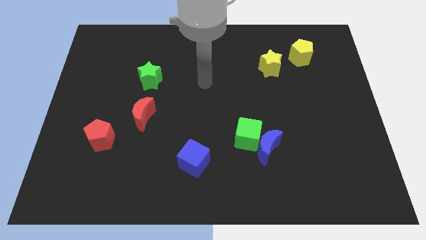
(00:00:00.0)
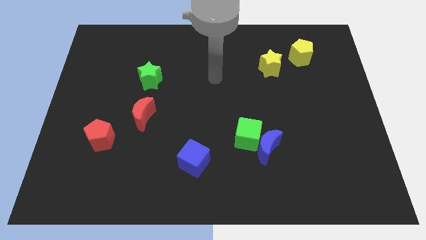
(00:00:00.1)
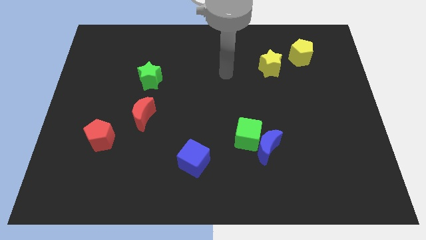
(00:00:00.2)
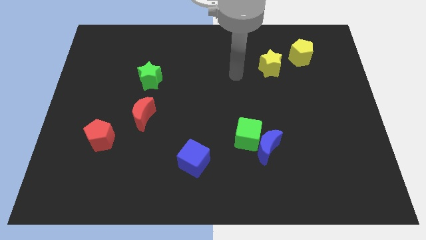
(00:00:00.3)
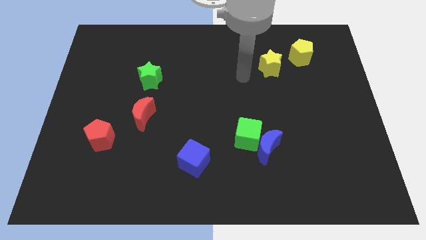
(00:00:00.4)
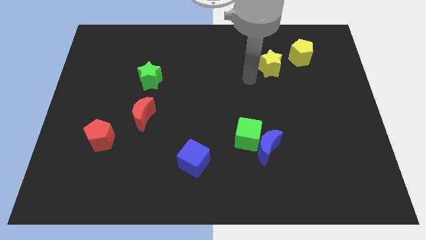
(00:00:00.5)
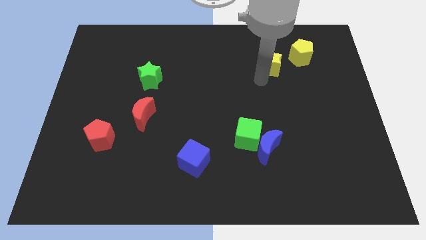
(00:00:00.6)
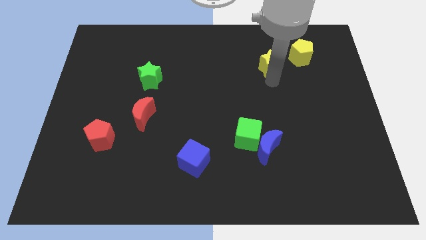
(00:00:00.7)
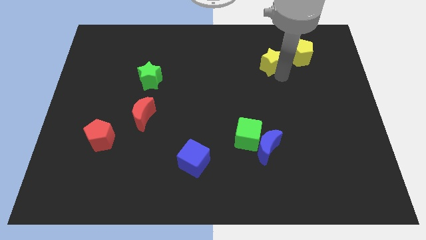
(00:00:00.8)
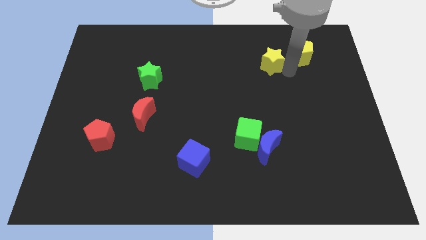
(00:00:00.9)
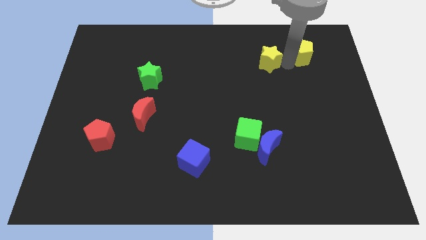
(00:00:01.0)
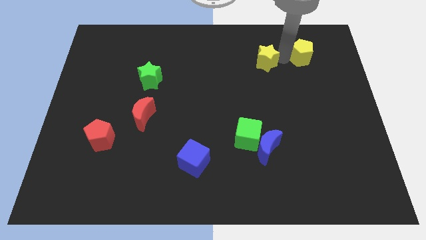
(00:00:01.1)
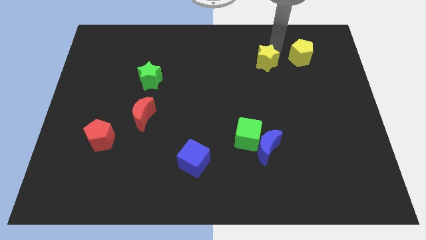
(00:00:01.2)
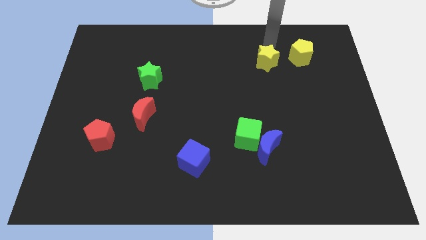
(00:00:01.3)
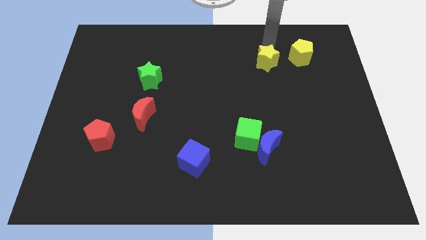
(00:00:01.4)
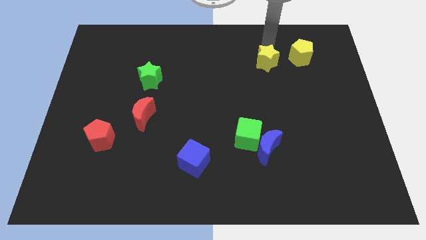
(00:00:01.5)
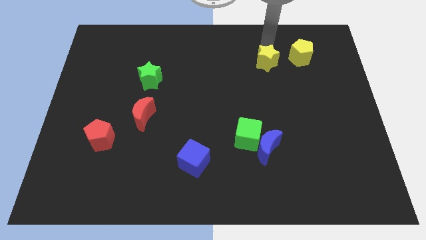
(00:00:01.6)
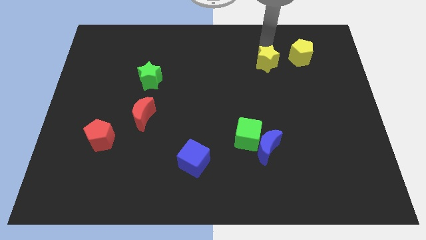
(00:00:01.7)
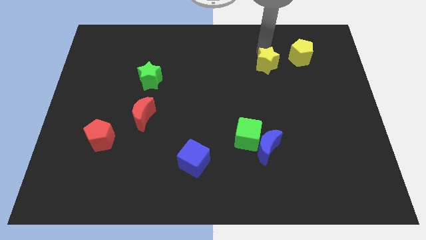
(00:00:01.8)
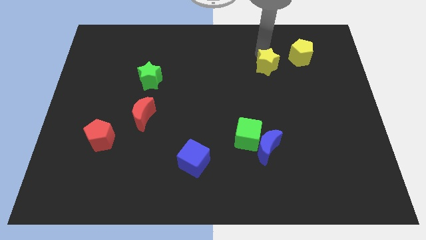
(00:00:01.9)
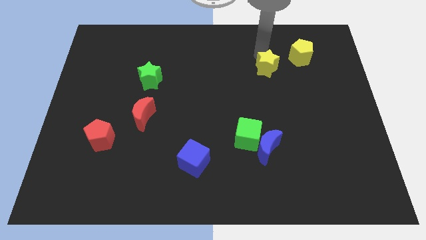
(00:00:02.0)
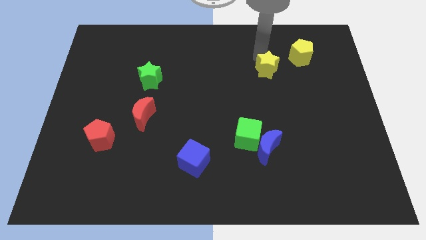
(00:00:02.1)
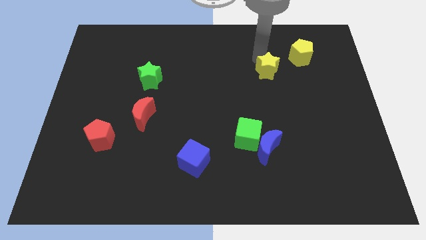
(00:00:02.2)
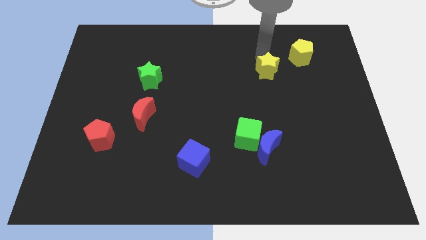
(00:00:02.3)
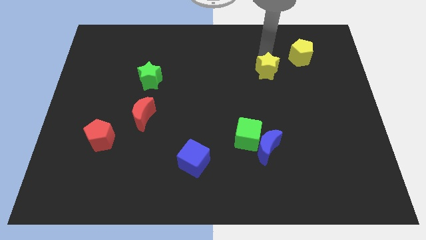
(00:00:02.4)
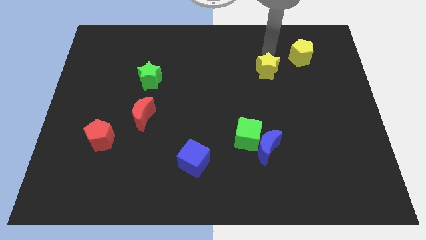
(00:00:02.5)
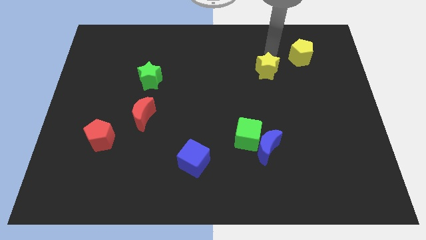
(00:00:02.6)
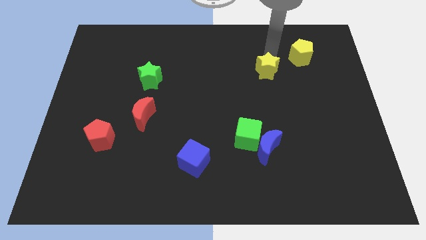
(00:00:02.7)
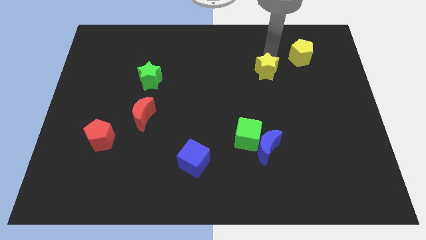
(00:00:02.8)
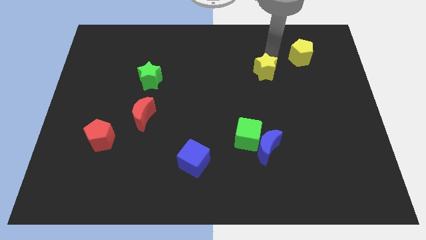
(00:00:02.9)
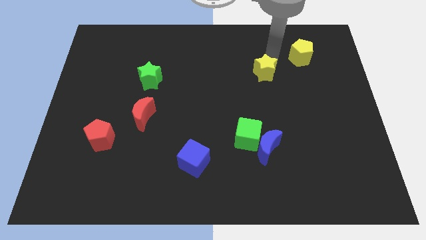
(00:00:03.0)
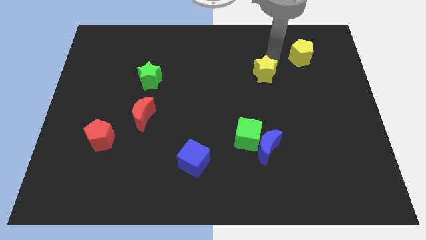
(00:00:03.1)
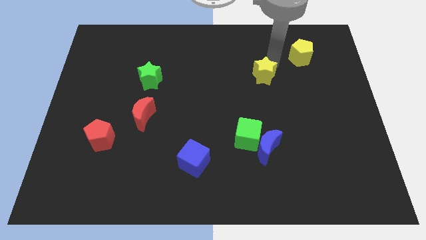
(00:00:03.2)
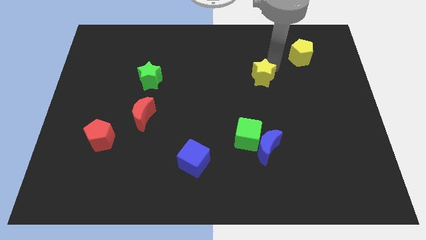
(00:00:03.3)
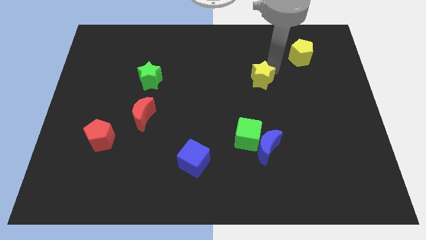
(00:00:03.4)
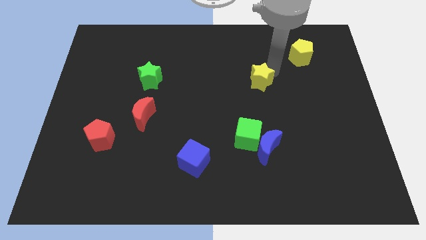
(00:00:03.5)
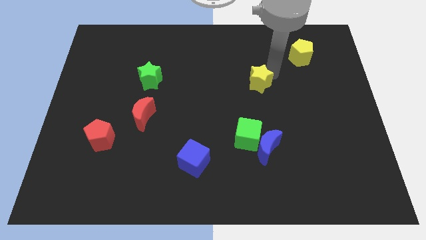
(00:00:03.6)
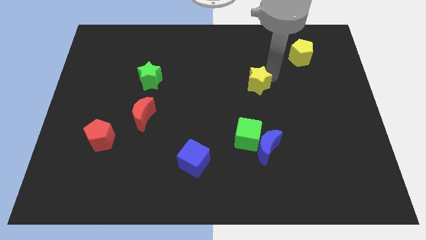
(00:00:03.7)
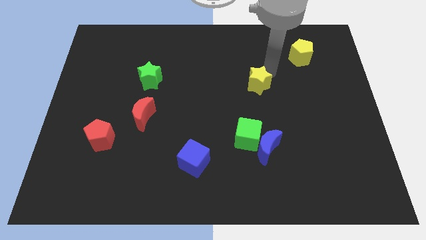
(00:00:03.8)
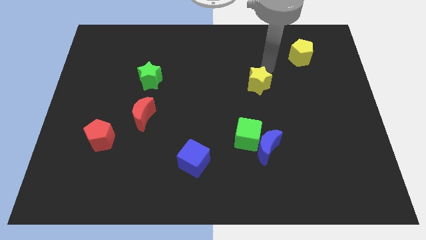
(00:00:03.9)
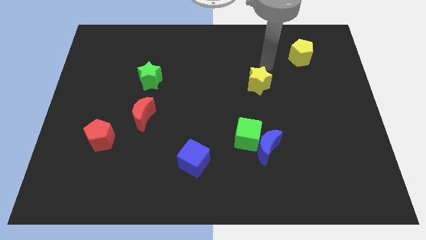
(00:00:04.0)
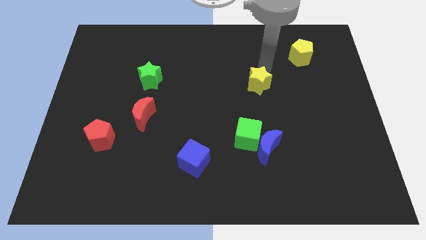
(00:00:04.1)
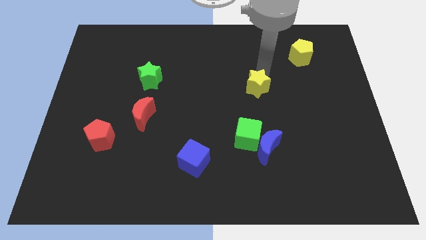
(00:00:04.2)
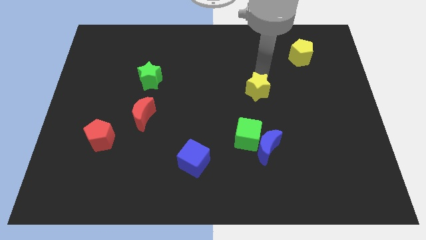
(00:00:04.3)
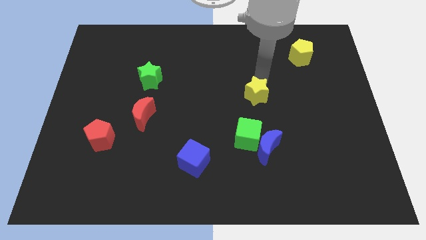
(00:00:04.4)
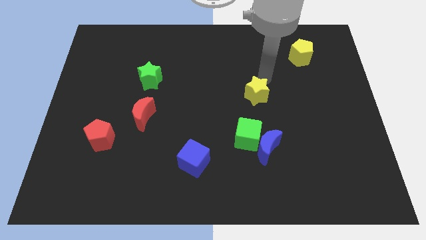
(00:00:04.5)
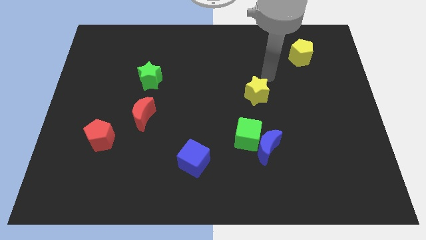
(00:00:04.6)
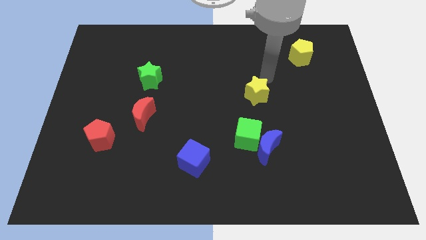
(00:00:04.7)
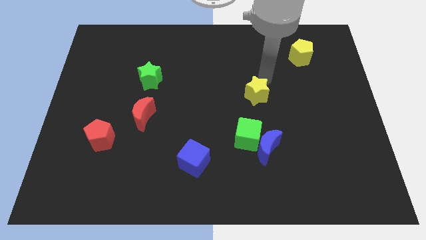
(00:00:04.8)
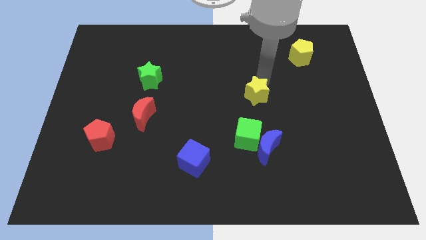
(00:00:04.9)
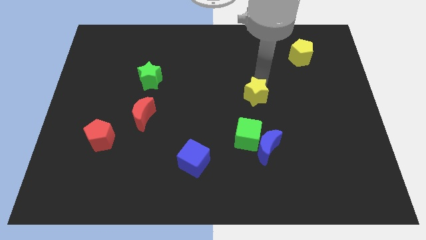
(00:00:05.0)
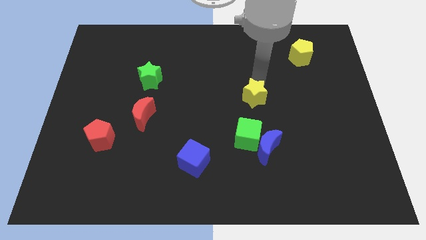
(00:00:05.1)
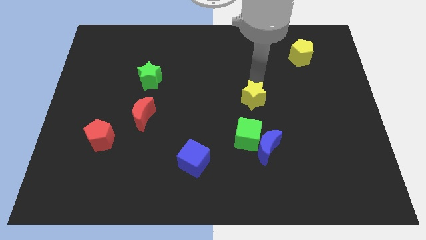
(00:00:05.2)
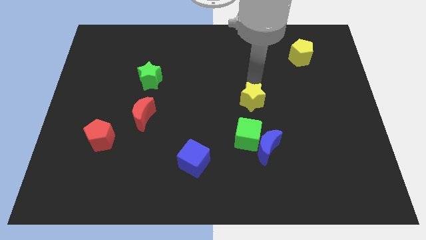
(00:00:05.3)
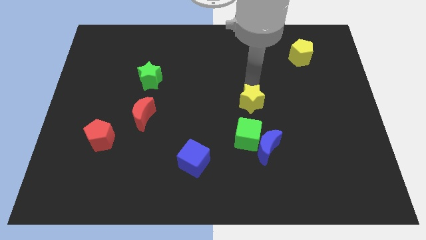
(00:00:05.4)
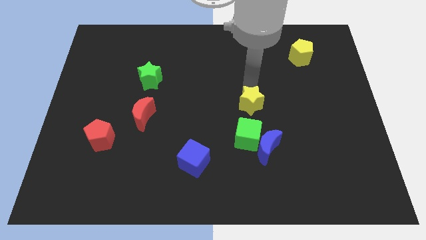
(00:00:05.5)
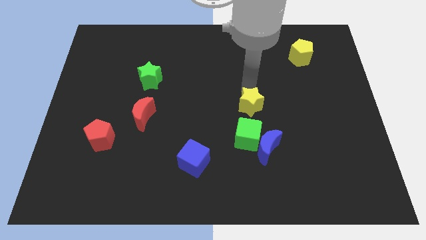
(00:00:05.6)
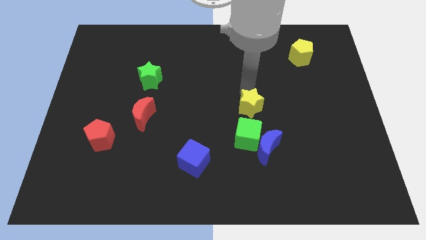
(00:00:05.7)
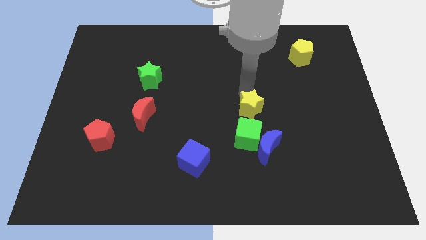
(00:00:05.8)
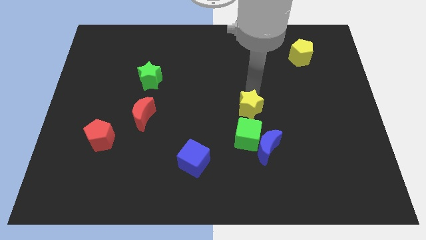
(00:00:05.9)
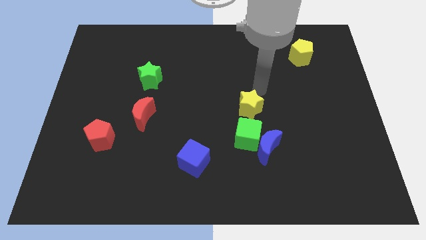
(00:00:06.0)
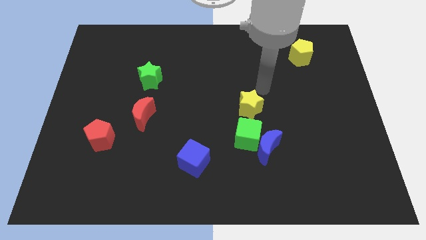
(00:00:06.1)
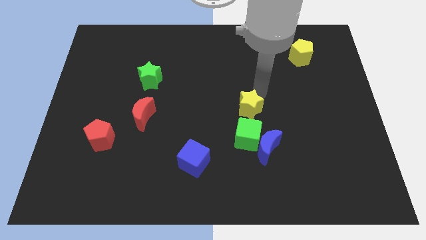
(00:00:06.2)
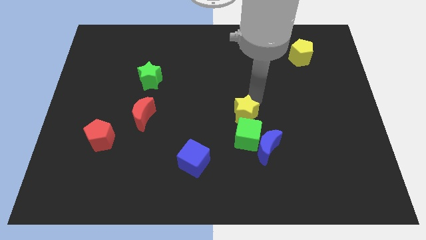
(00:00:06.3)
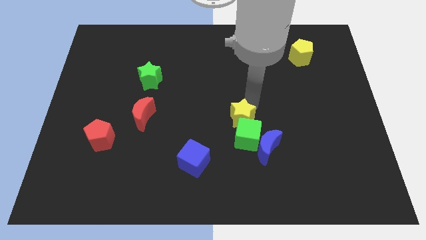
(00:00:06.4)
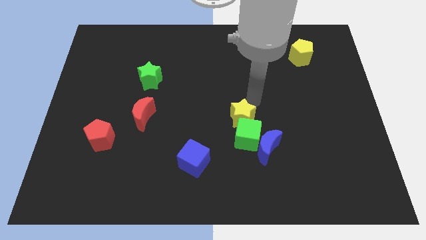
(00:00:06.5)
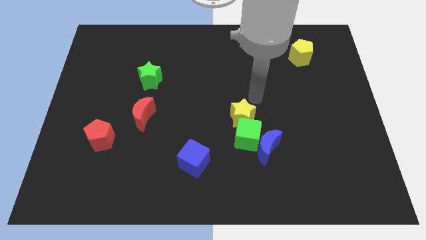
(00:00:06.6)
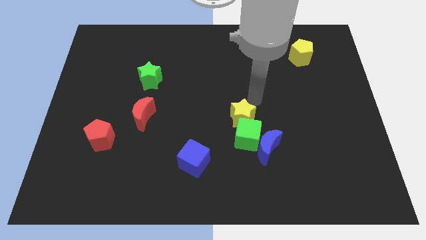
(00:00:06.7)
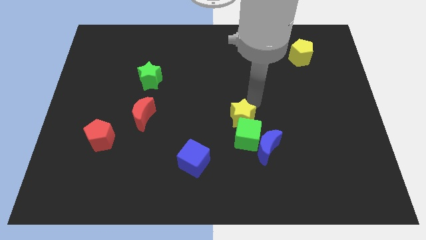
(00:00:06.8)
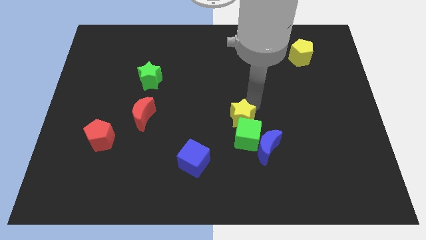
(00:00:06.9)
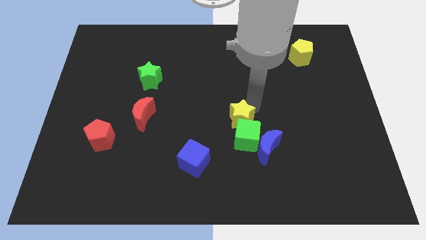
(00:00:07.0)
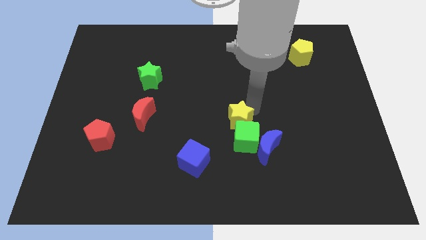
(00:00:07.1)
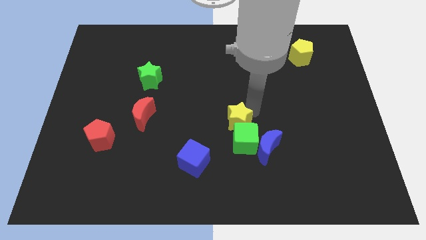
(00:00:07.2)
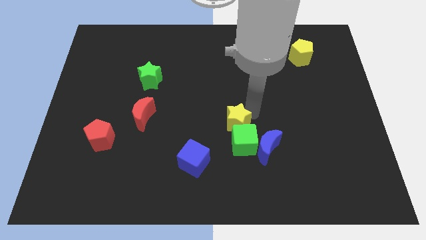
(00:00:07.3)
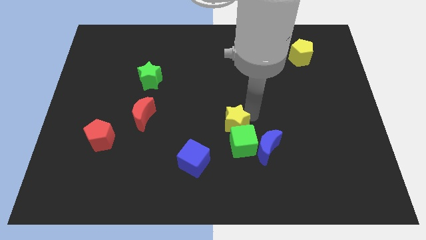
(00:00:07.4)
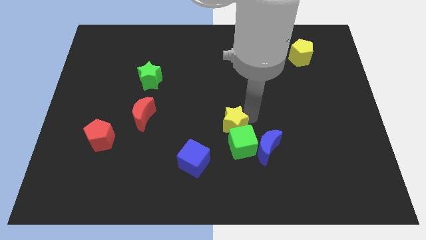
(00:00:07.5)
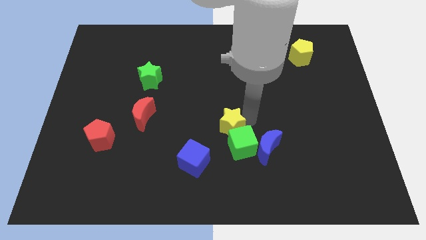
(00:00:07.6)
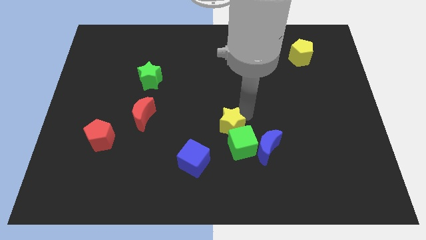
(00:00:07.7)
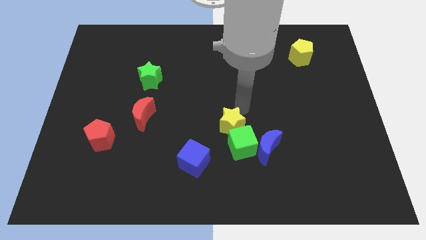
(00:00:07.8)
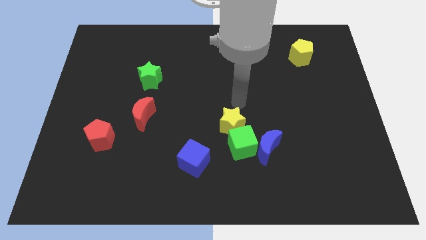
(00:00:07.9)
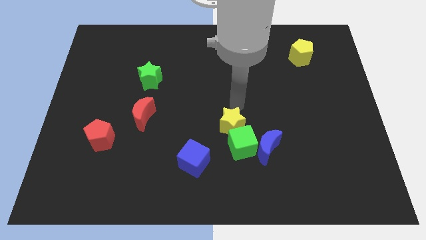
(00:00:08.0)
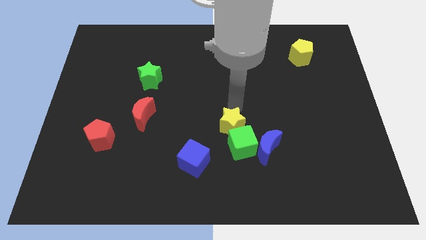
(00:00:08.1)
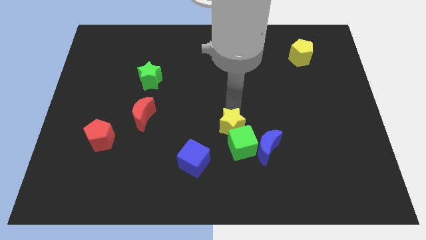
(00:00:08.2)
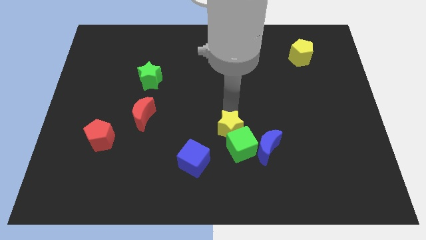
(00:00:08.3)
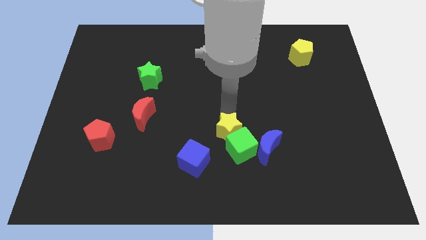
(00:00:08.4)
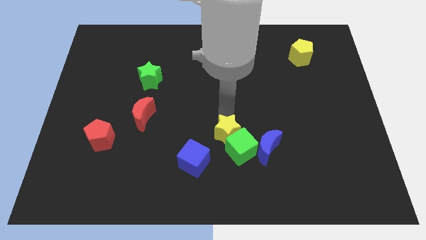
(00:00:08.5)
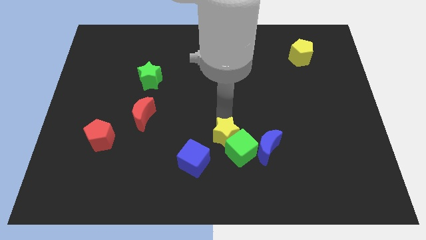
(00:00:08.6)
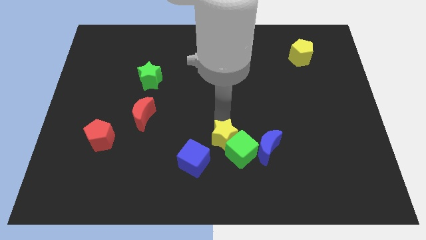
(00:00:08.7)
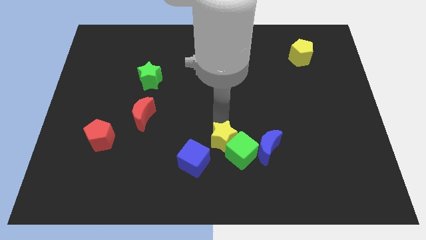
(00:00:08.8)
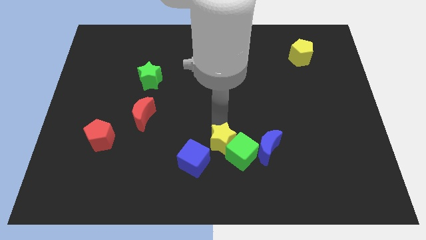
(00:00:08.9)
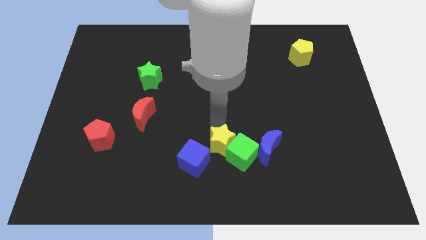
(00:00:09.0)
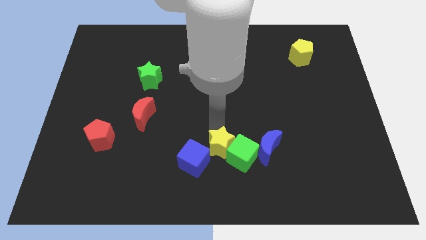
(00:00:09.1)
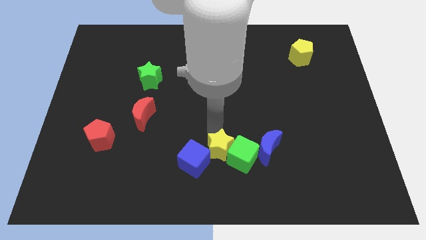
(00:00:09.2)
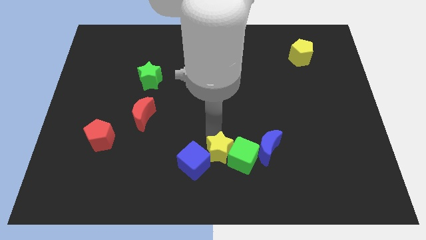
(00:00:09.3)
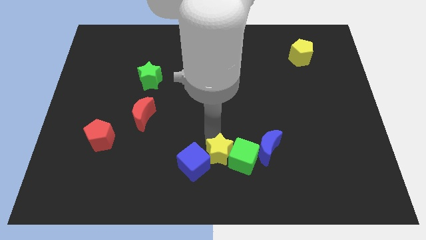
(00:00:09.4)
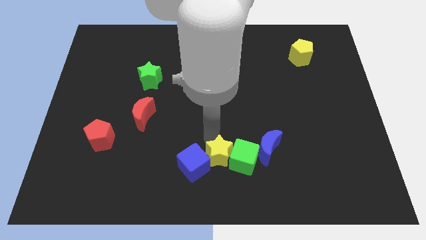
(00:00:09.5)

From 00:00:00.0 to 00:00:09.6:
move the yellow star to the bottom
